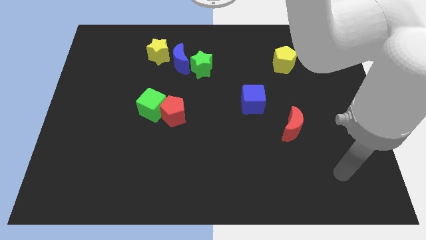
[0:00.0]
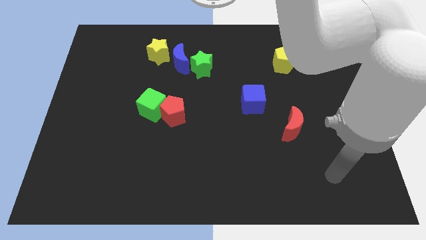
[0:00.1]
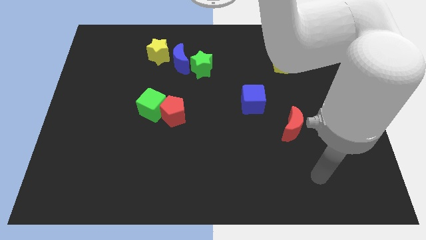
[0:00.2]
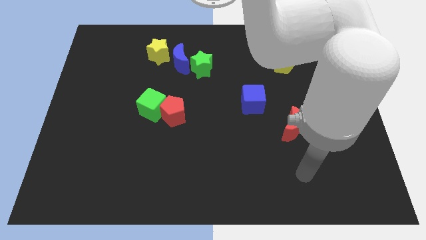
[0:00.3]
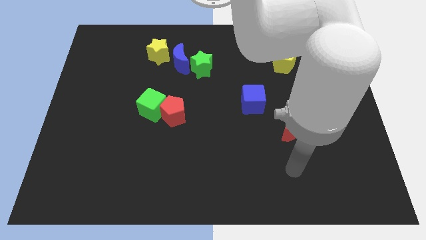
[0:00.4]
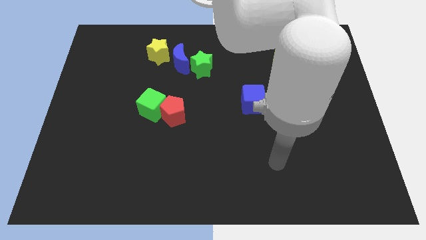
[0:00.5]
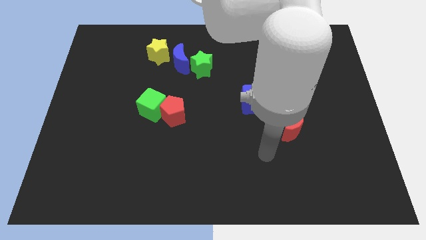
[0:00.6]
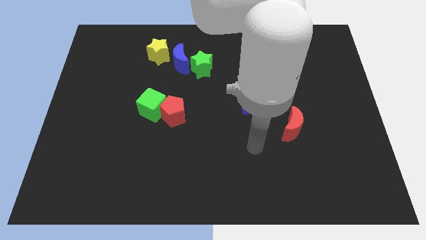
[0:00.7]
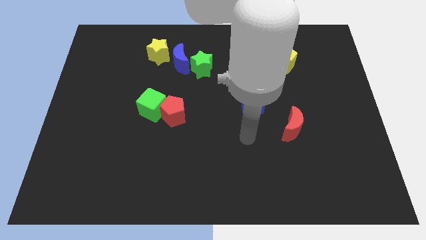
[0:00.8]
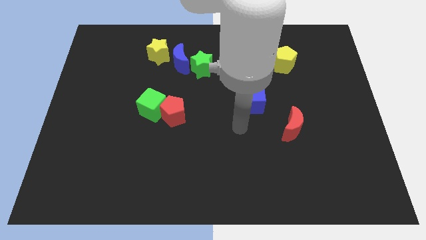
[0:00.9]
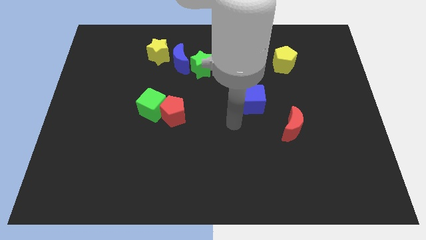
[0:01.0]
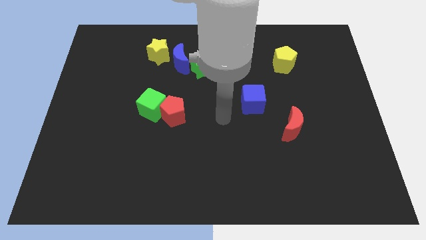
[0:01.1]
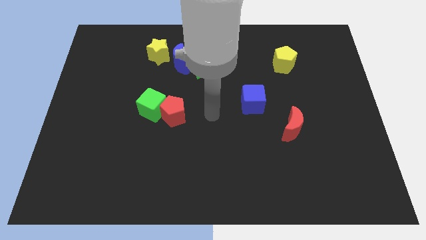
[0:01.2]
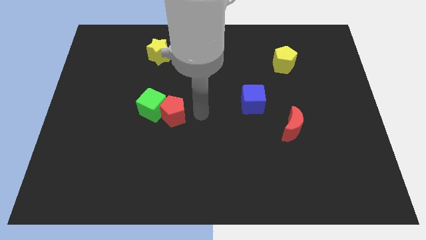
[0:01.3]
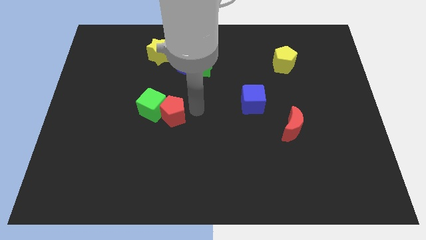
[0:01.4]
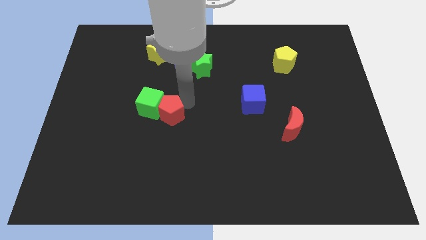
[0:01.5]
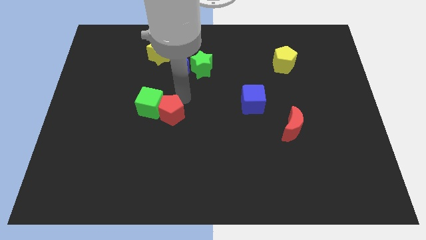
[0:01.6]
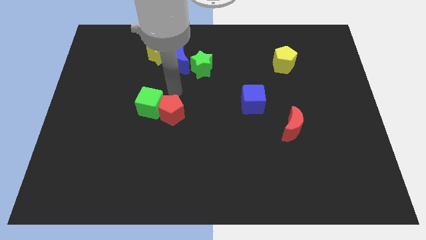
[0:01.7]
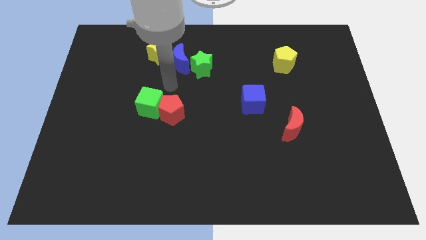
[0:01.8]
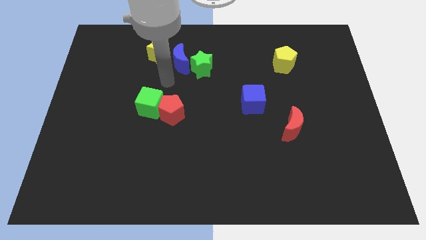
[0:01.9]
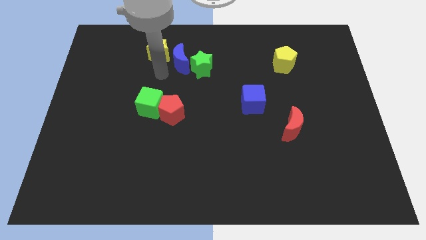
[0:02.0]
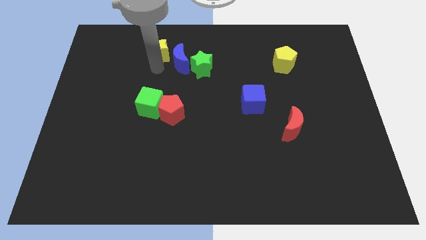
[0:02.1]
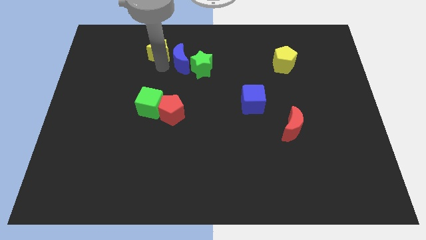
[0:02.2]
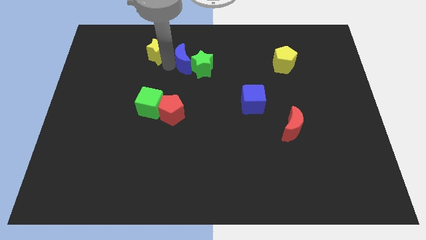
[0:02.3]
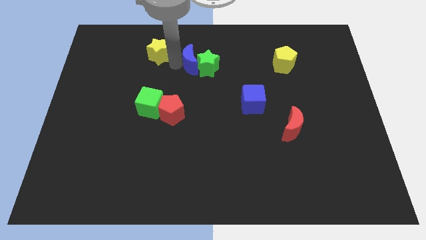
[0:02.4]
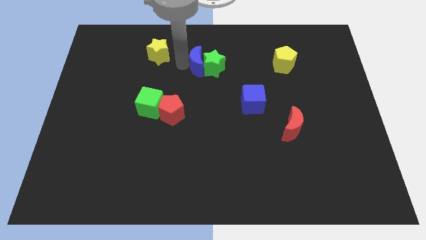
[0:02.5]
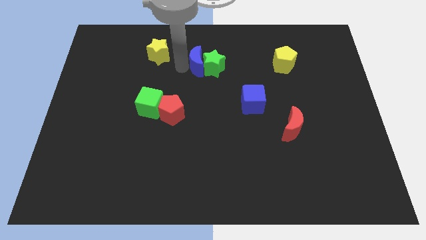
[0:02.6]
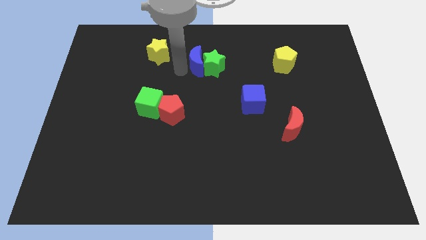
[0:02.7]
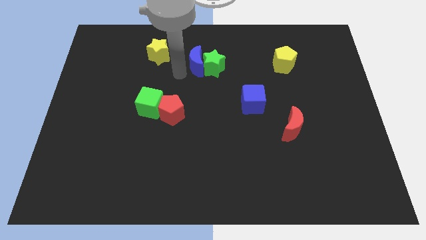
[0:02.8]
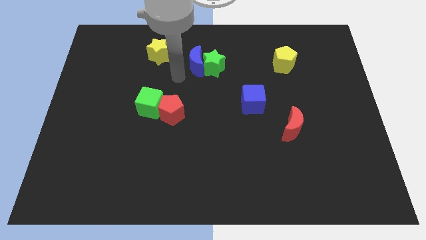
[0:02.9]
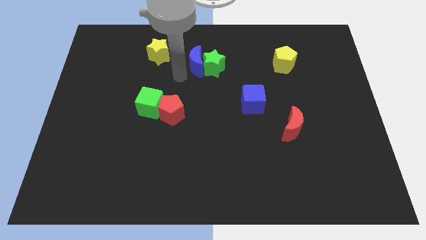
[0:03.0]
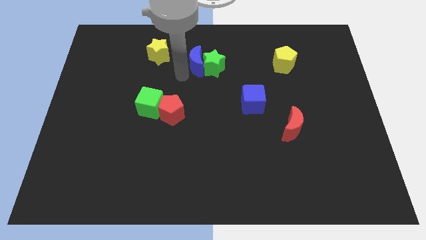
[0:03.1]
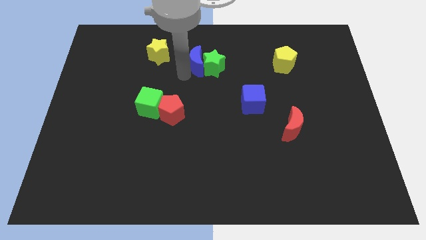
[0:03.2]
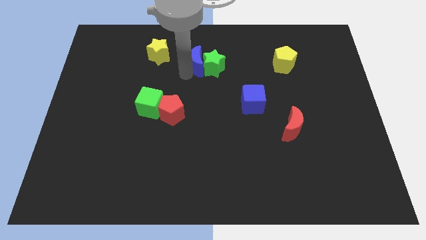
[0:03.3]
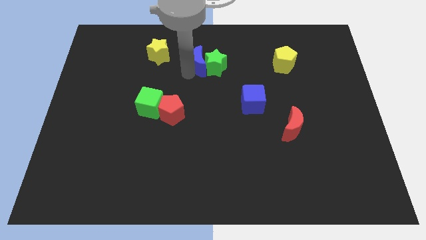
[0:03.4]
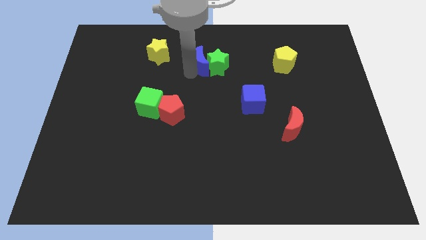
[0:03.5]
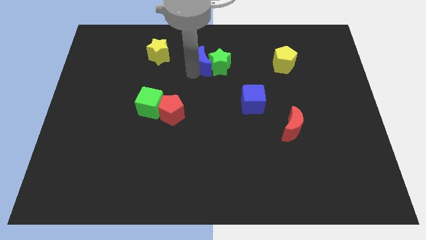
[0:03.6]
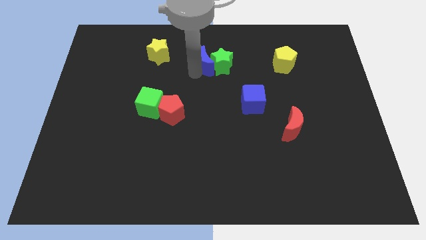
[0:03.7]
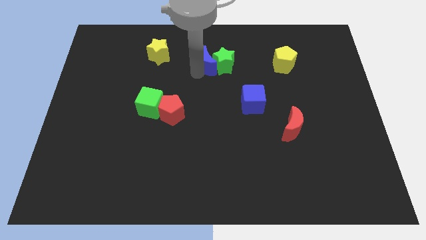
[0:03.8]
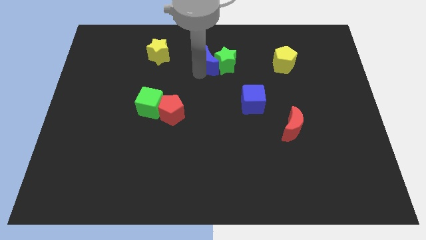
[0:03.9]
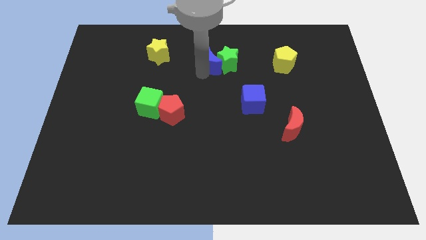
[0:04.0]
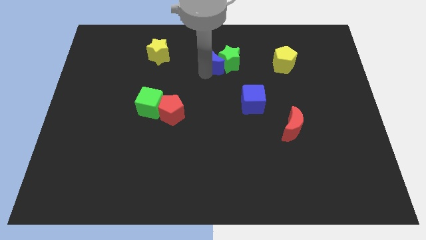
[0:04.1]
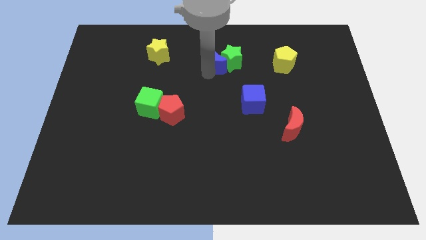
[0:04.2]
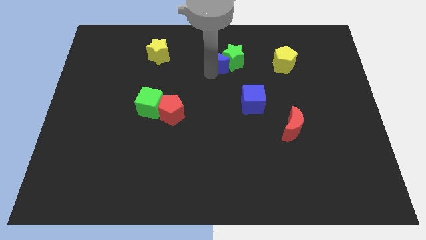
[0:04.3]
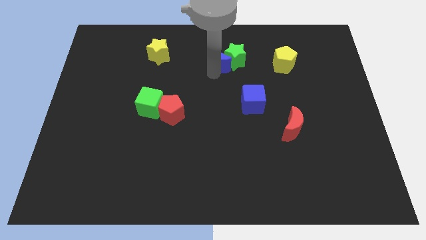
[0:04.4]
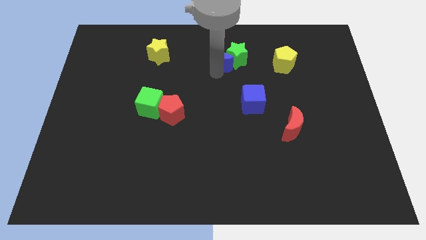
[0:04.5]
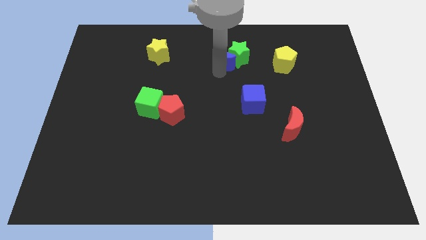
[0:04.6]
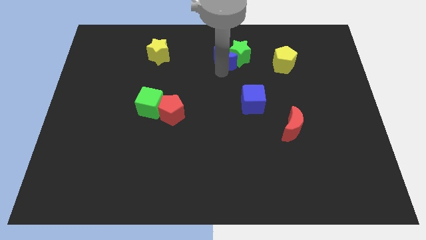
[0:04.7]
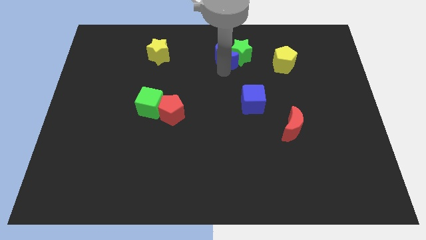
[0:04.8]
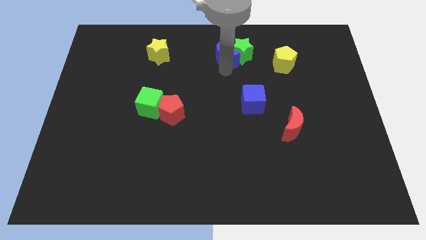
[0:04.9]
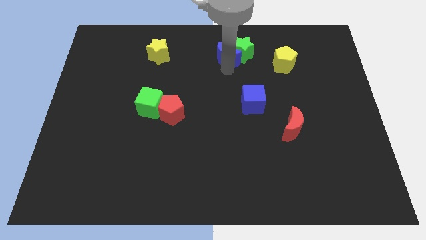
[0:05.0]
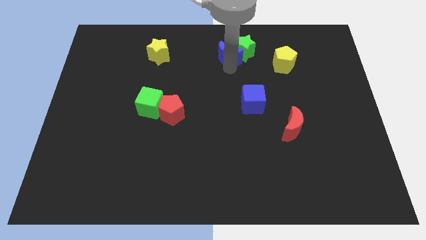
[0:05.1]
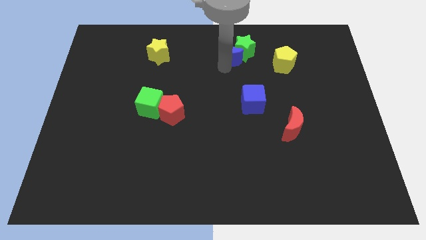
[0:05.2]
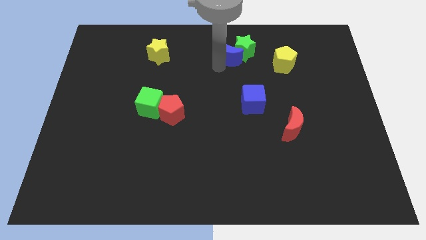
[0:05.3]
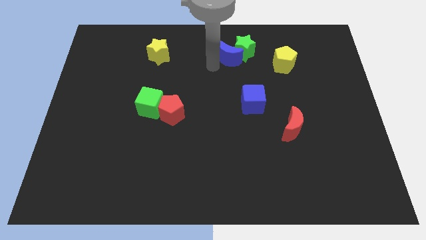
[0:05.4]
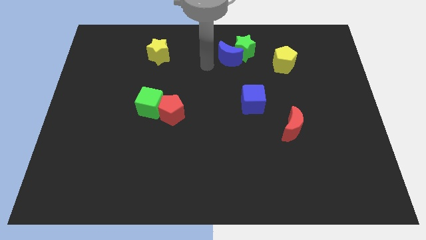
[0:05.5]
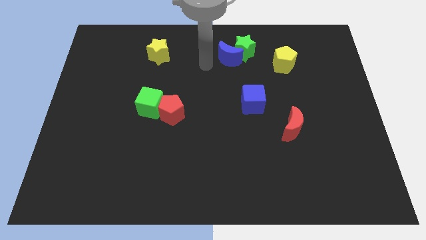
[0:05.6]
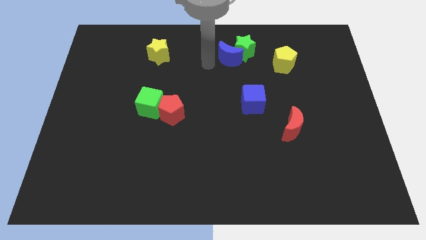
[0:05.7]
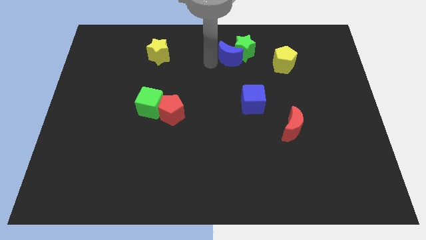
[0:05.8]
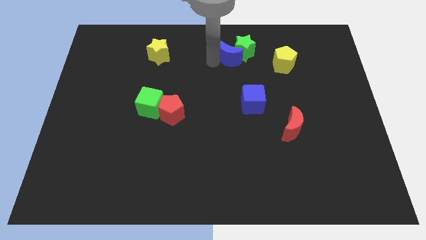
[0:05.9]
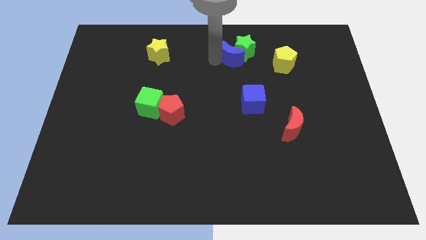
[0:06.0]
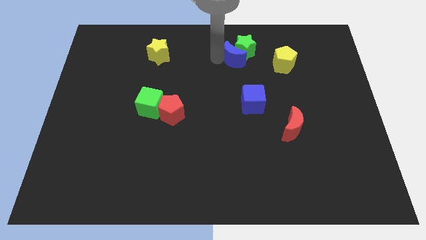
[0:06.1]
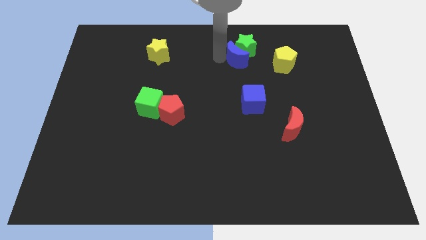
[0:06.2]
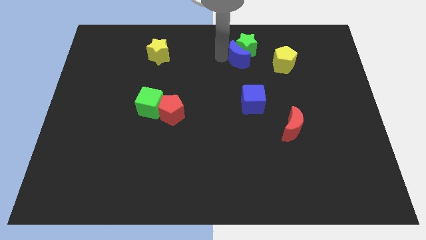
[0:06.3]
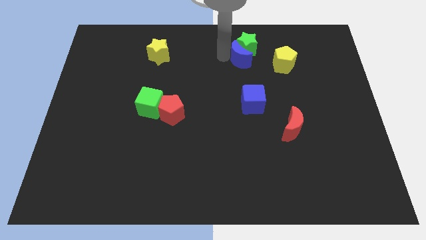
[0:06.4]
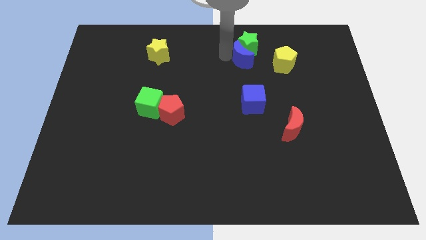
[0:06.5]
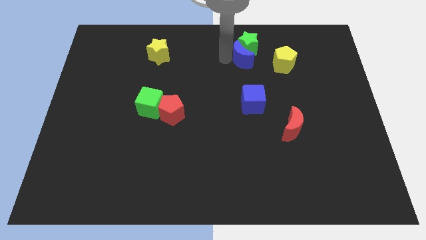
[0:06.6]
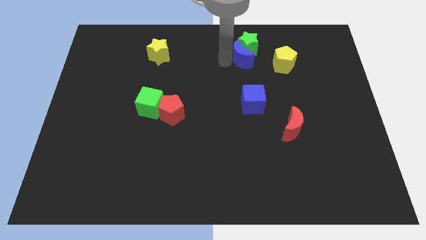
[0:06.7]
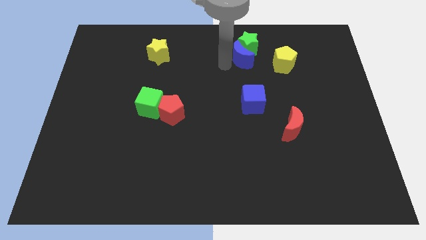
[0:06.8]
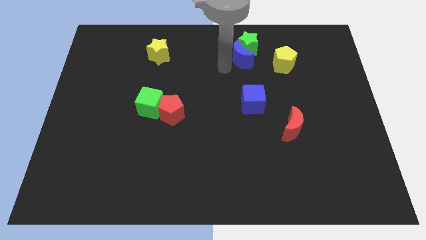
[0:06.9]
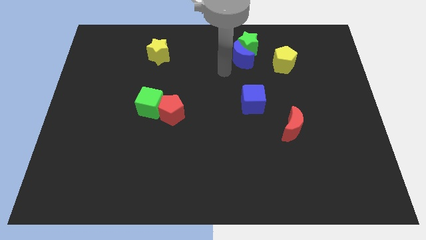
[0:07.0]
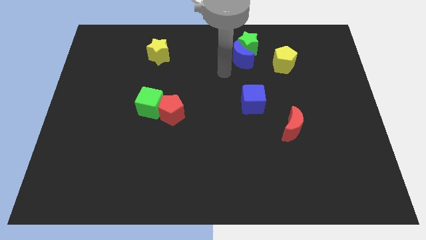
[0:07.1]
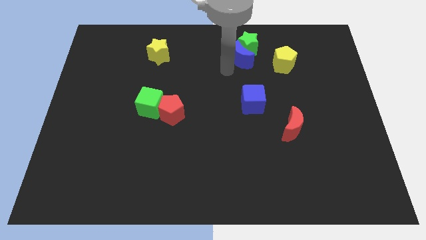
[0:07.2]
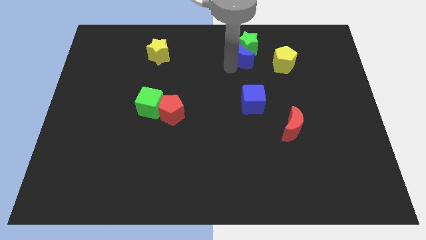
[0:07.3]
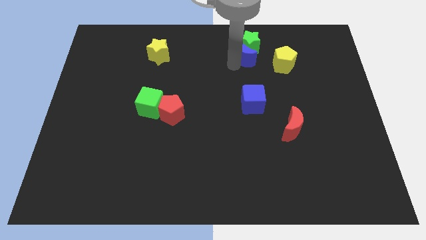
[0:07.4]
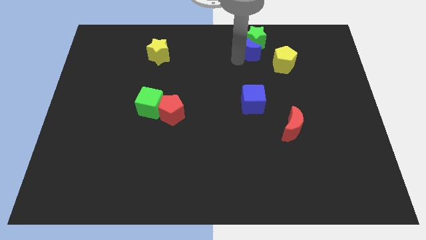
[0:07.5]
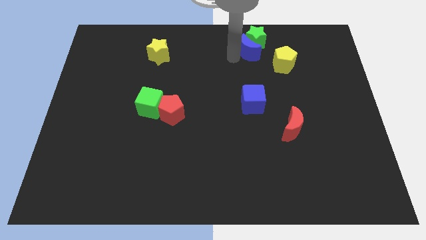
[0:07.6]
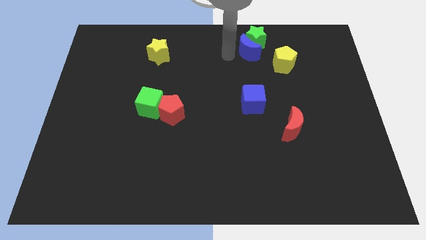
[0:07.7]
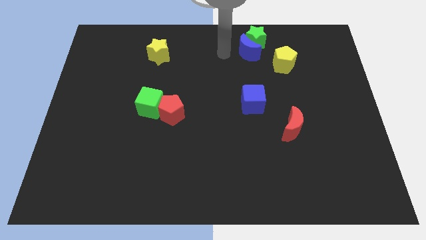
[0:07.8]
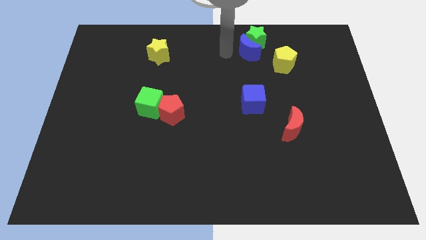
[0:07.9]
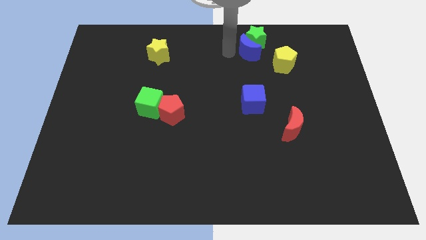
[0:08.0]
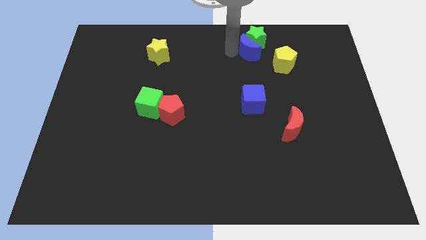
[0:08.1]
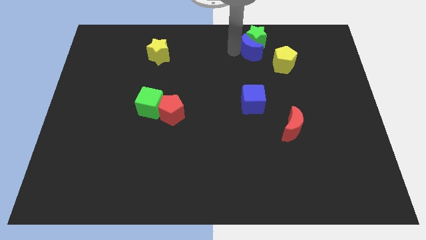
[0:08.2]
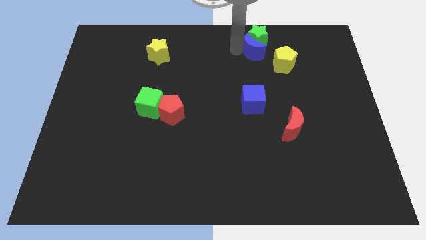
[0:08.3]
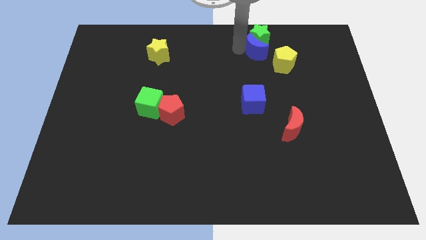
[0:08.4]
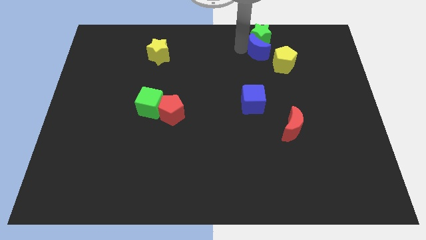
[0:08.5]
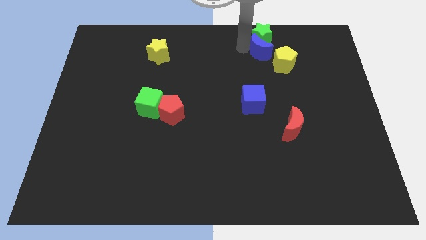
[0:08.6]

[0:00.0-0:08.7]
slide the blue moon right
